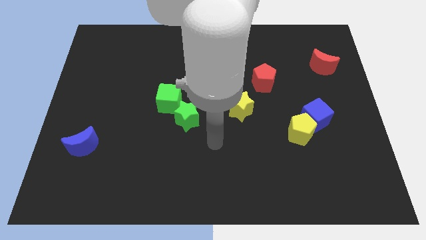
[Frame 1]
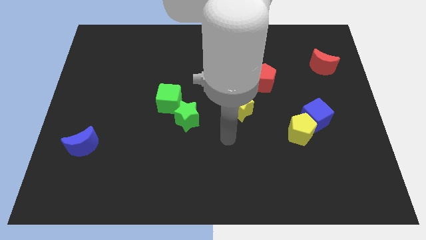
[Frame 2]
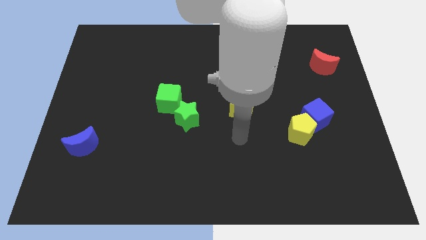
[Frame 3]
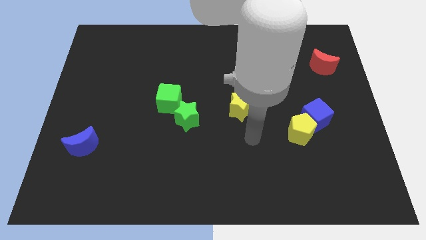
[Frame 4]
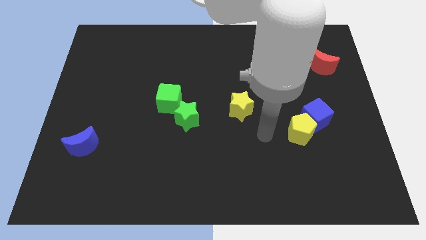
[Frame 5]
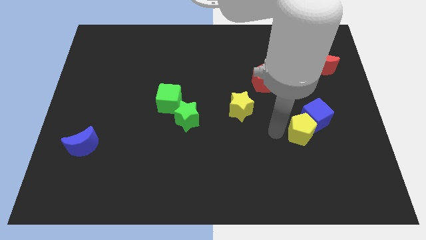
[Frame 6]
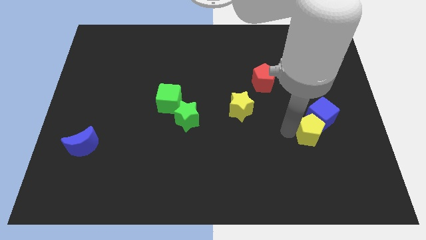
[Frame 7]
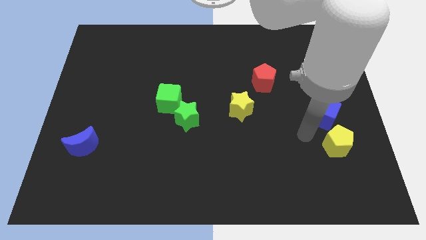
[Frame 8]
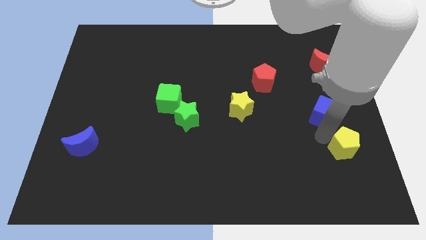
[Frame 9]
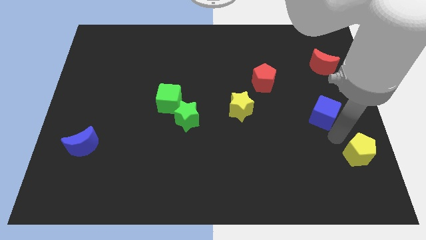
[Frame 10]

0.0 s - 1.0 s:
separate the blue cube from the yellow pentagon

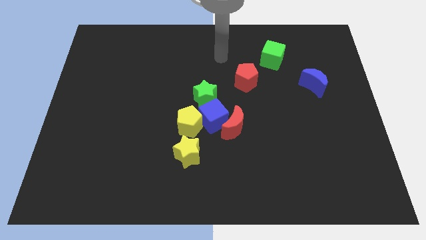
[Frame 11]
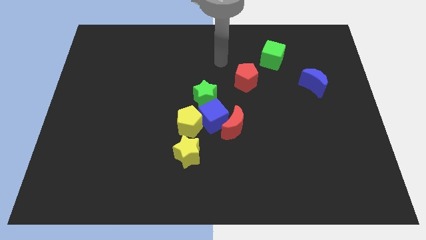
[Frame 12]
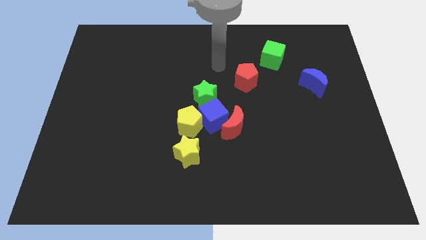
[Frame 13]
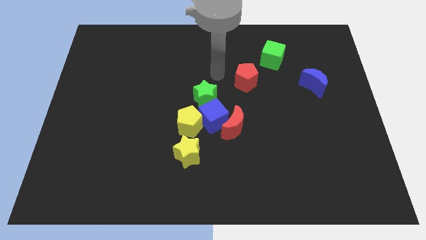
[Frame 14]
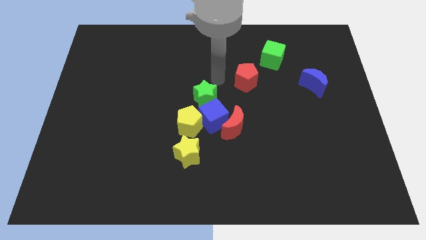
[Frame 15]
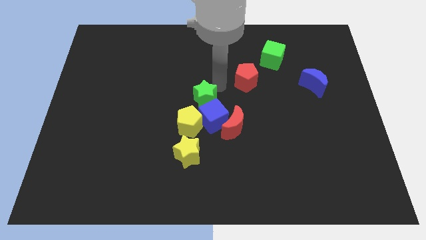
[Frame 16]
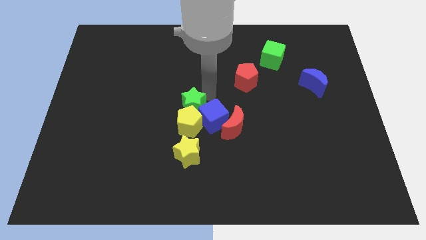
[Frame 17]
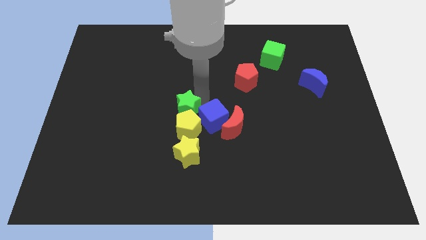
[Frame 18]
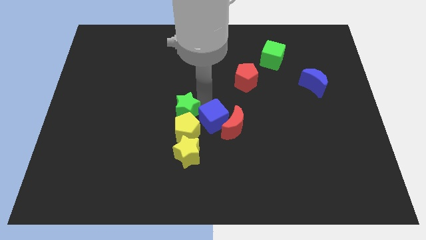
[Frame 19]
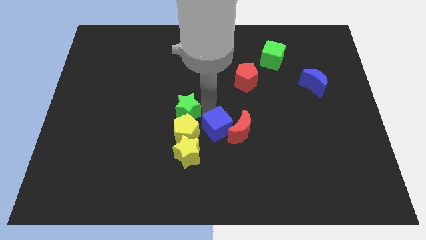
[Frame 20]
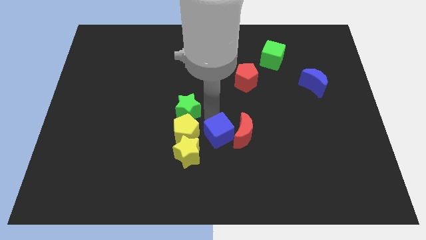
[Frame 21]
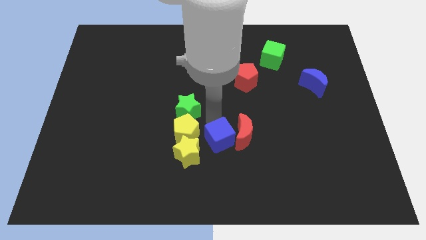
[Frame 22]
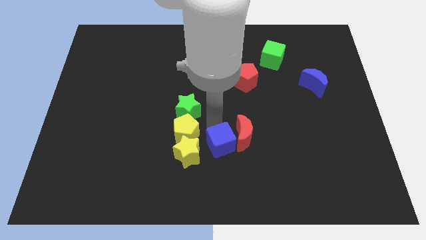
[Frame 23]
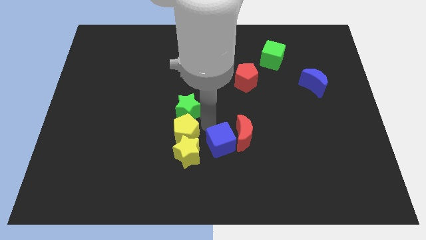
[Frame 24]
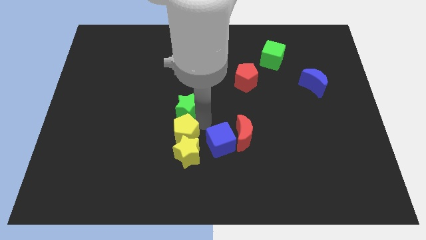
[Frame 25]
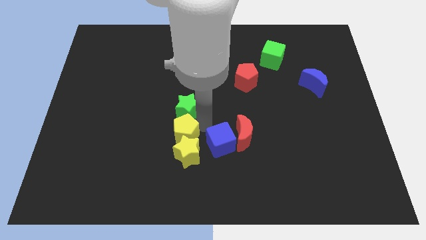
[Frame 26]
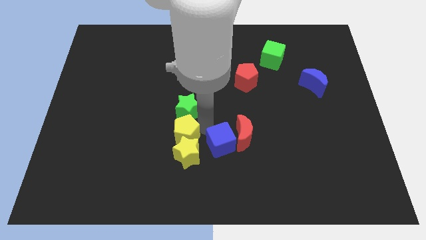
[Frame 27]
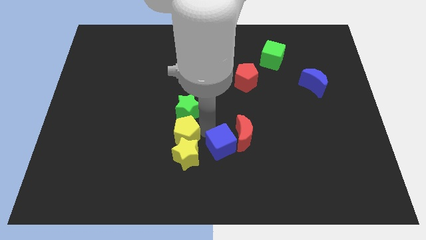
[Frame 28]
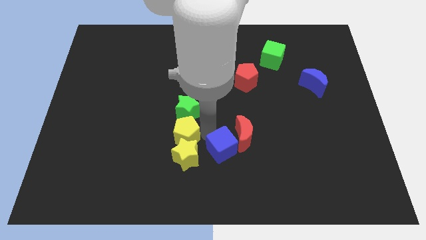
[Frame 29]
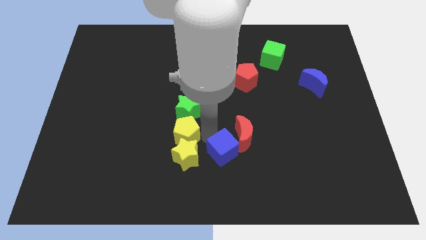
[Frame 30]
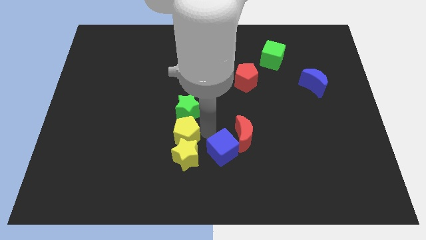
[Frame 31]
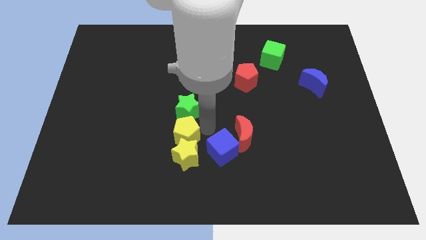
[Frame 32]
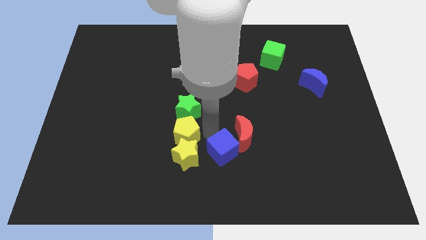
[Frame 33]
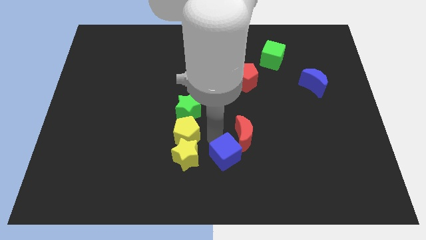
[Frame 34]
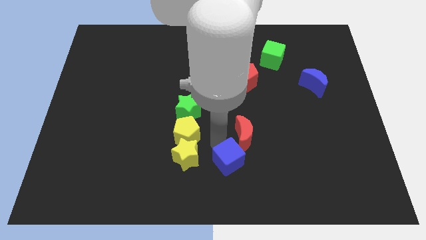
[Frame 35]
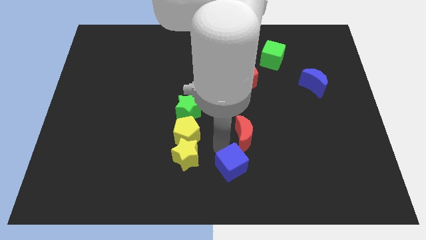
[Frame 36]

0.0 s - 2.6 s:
separate the blue cube from the red moon, yellow pentagon, and green star

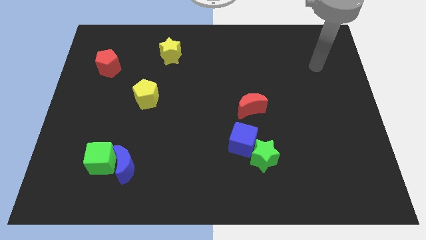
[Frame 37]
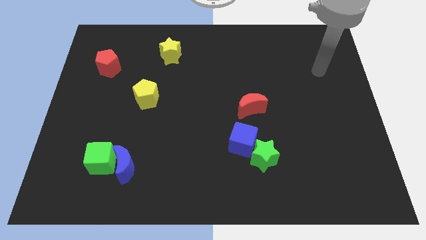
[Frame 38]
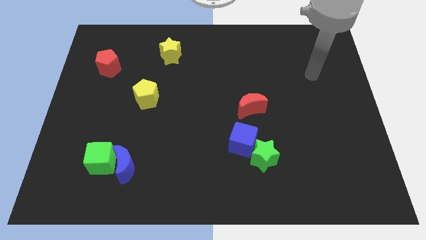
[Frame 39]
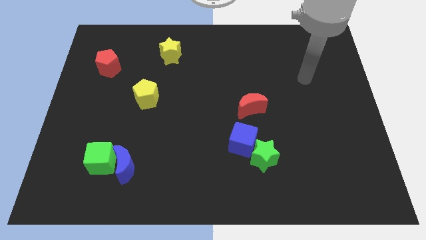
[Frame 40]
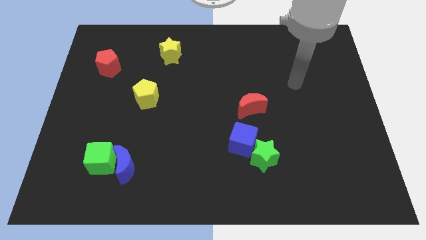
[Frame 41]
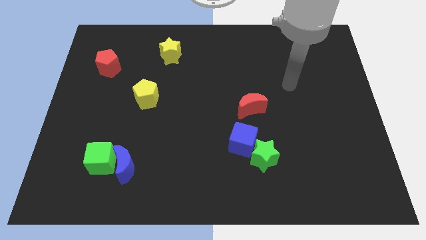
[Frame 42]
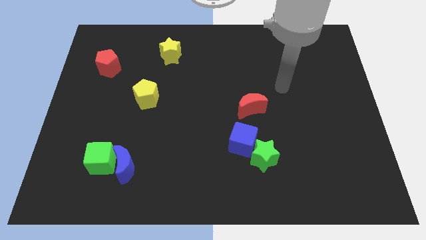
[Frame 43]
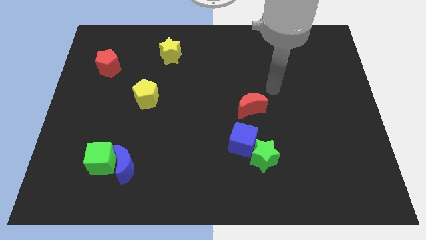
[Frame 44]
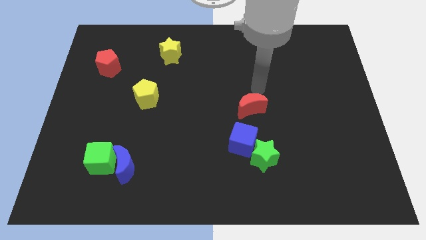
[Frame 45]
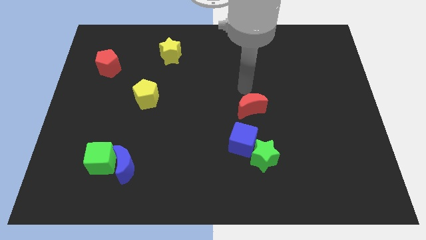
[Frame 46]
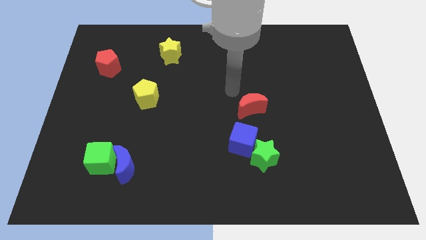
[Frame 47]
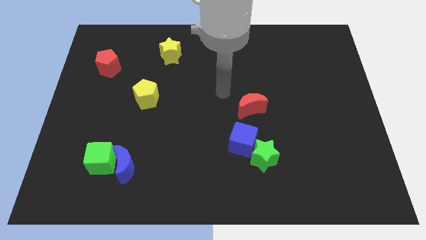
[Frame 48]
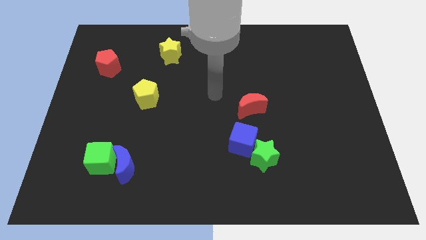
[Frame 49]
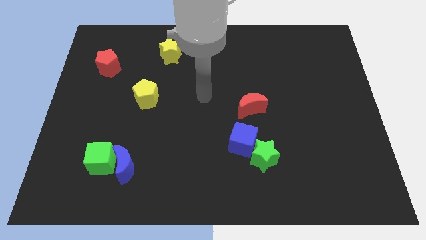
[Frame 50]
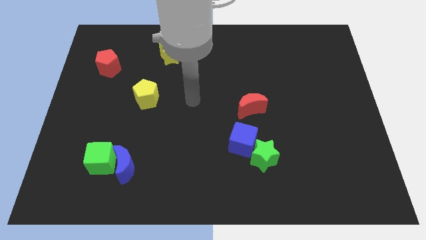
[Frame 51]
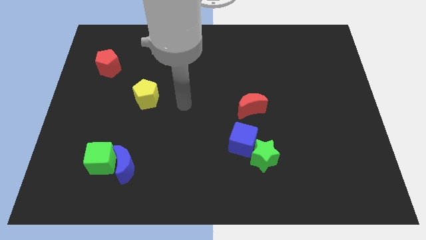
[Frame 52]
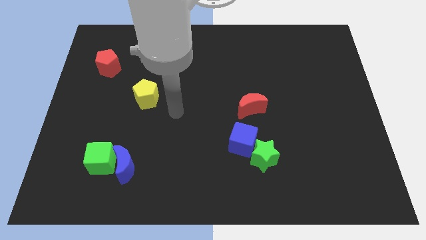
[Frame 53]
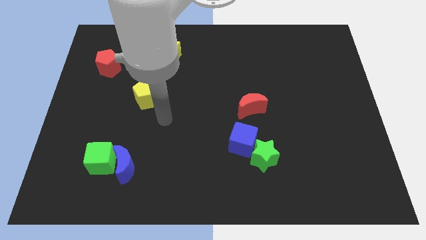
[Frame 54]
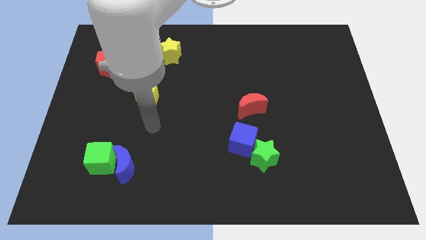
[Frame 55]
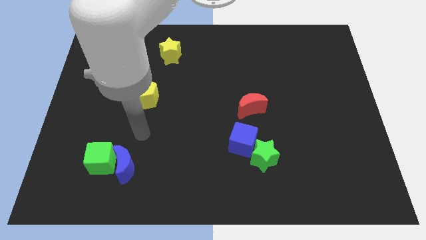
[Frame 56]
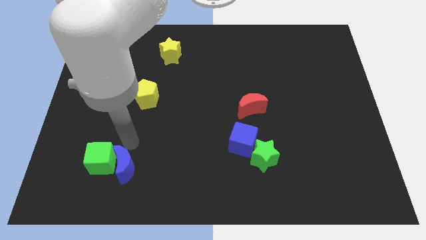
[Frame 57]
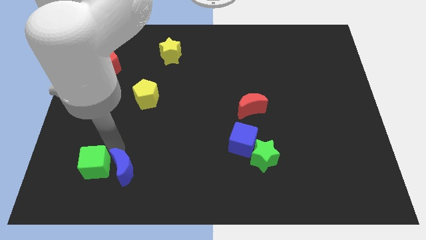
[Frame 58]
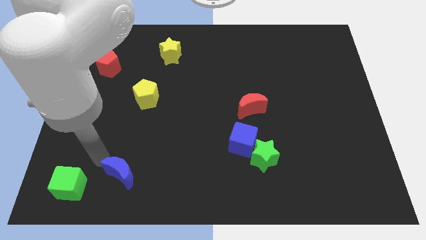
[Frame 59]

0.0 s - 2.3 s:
move the blue moon away from the green cube

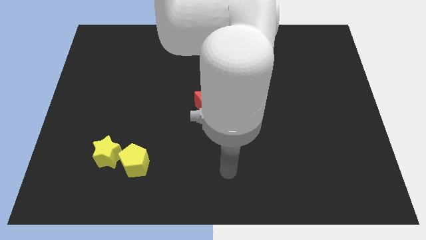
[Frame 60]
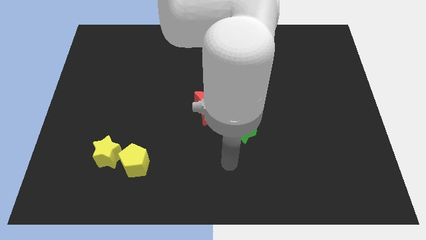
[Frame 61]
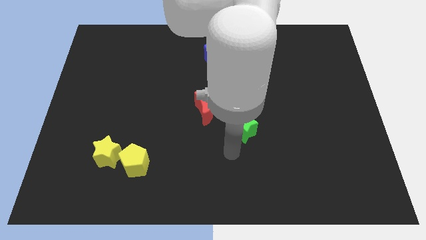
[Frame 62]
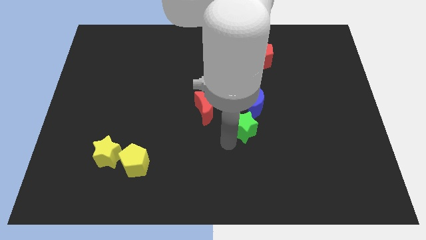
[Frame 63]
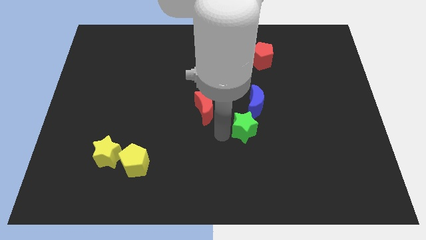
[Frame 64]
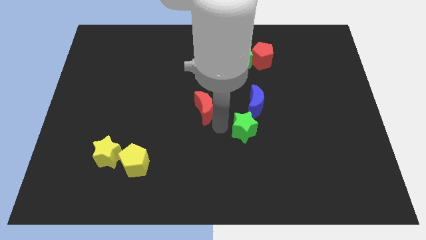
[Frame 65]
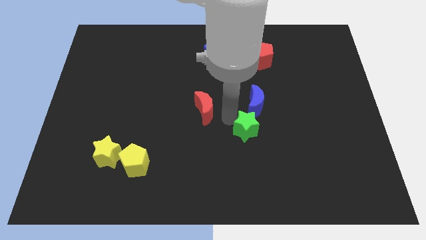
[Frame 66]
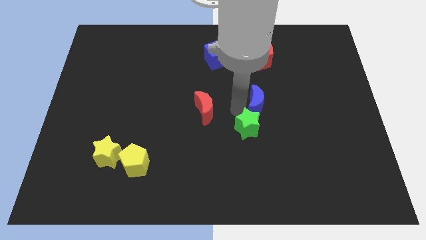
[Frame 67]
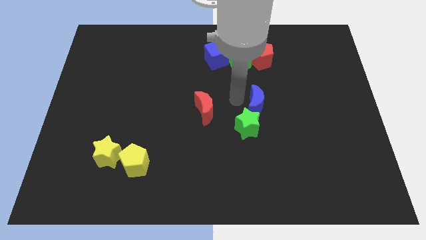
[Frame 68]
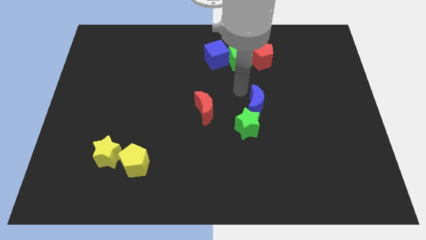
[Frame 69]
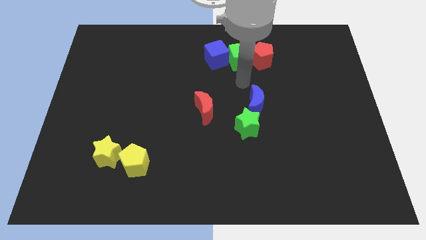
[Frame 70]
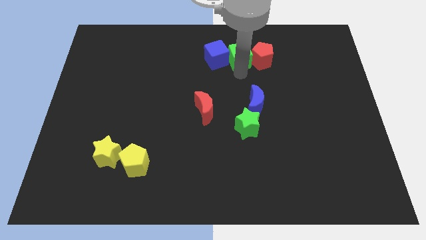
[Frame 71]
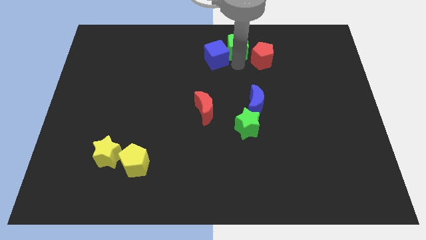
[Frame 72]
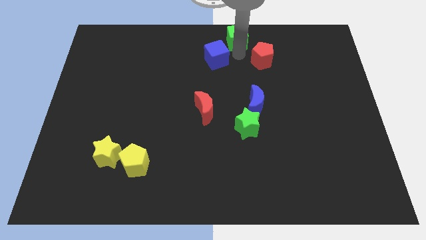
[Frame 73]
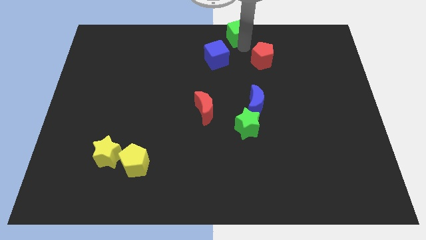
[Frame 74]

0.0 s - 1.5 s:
move the red pentagon away from the green cube

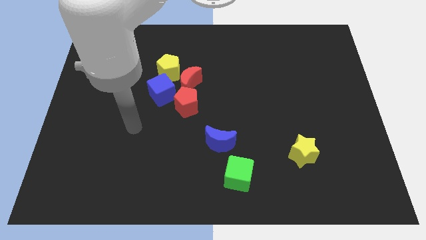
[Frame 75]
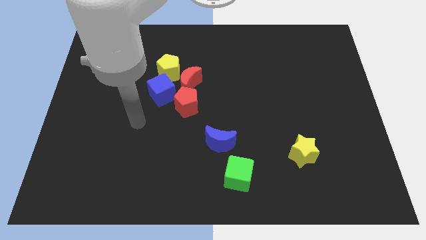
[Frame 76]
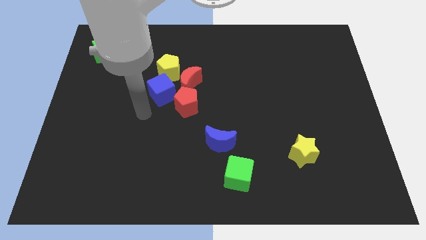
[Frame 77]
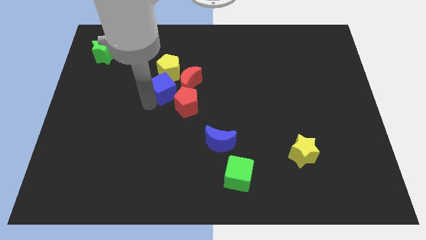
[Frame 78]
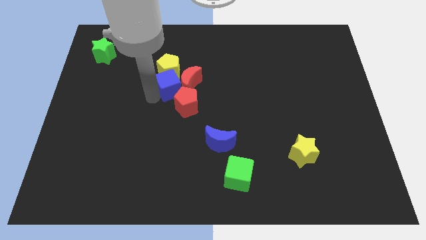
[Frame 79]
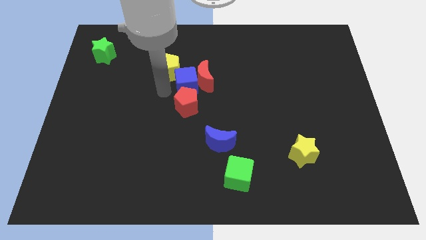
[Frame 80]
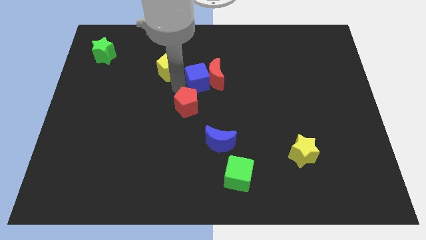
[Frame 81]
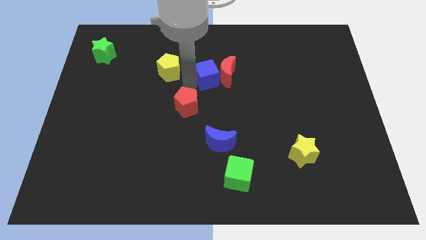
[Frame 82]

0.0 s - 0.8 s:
separate the red moon from the yellow pentagon, red pentagon, and blue cube

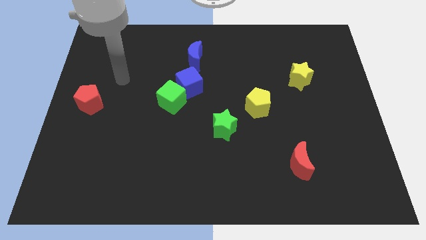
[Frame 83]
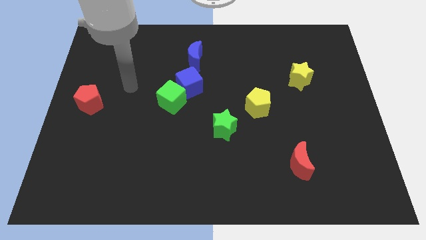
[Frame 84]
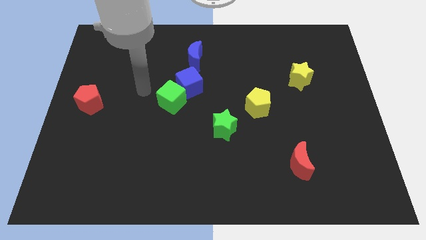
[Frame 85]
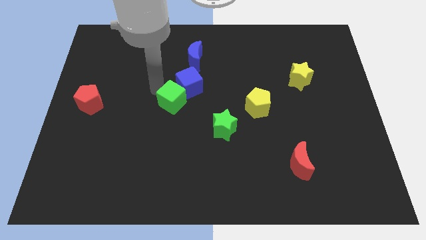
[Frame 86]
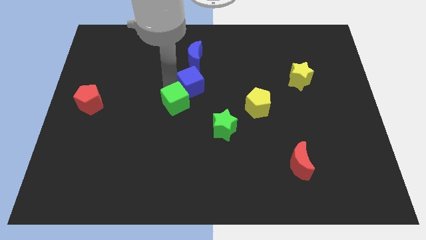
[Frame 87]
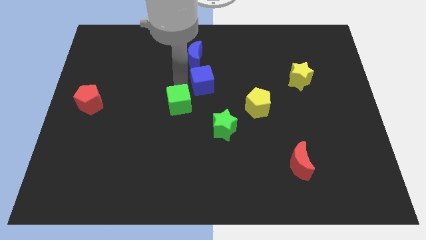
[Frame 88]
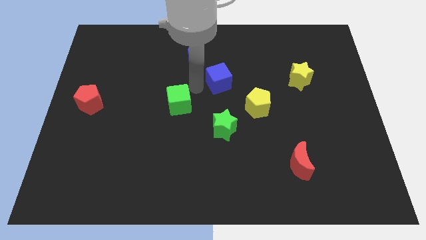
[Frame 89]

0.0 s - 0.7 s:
pull the green cube apart from the blue cube

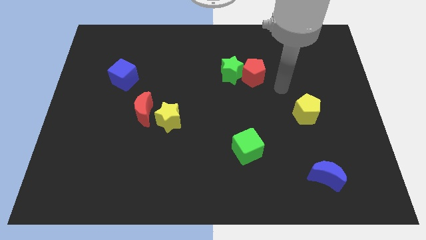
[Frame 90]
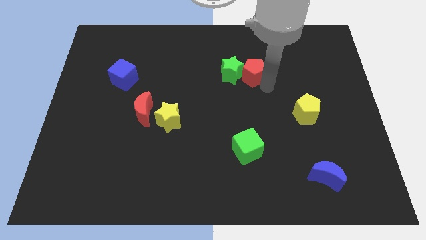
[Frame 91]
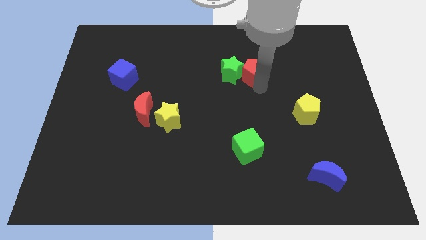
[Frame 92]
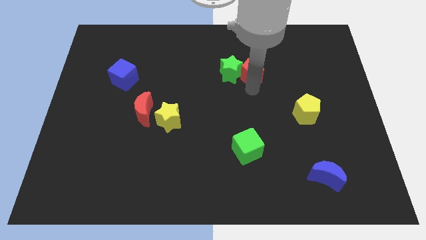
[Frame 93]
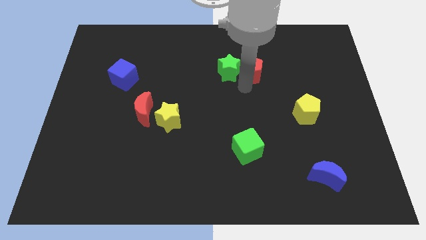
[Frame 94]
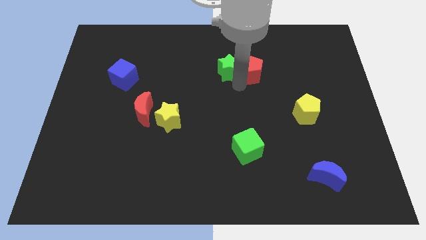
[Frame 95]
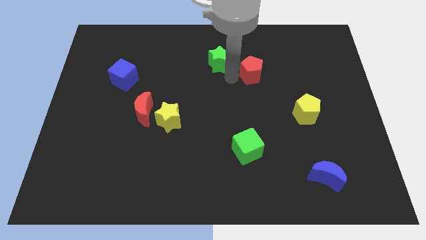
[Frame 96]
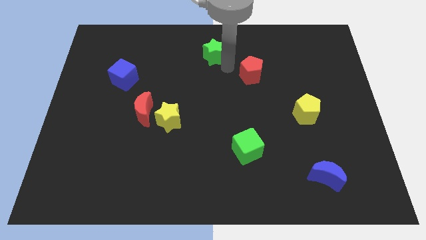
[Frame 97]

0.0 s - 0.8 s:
pull the red pentagon apart from the green star
